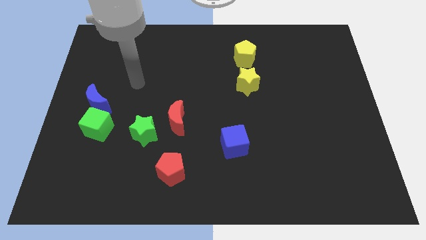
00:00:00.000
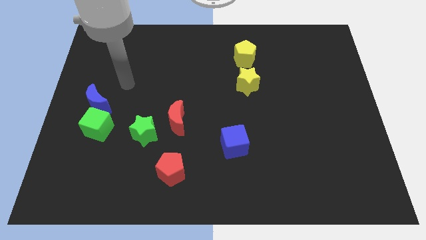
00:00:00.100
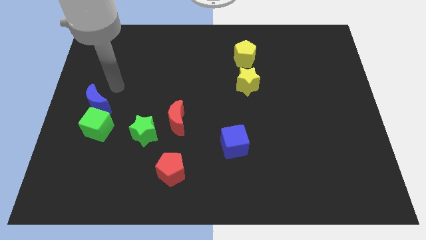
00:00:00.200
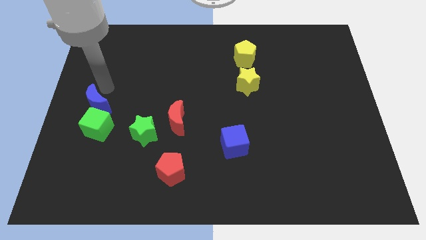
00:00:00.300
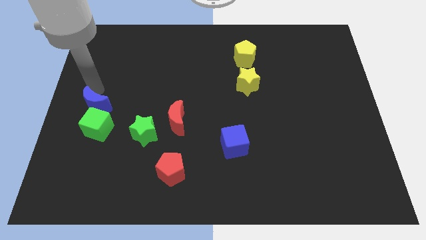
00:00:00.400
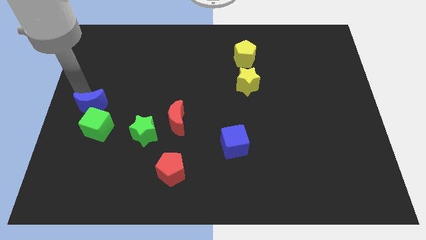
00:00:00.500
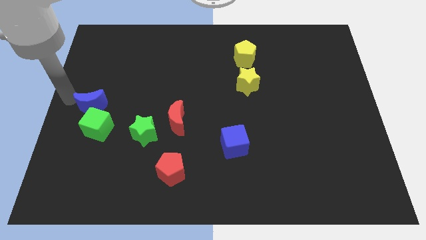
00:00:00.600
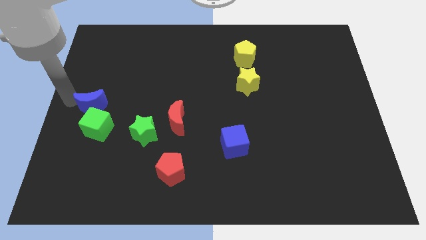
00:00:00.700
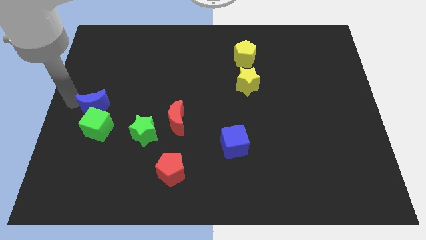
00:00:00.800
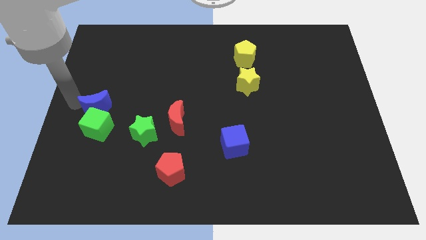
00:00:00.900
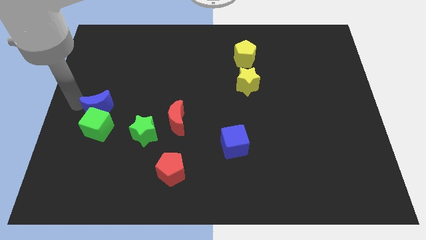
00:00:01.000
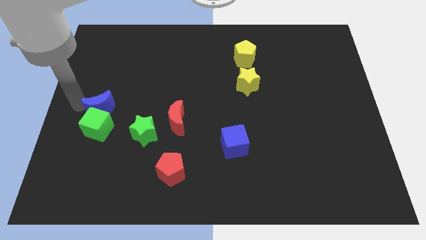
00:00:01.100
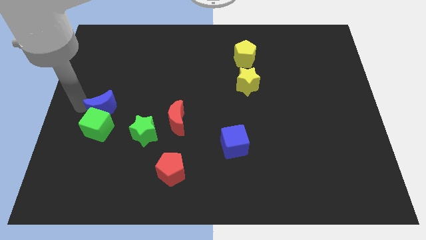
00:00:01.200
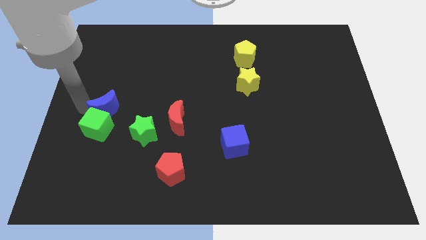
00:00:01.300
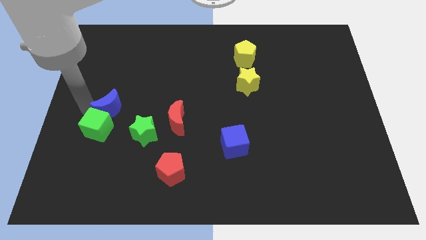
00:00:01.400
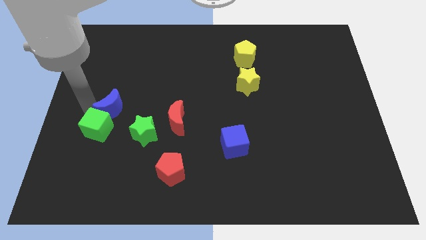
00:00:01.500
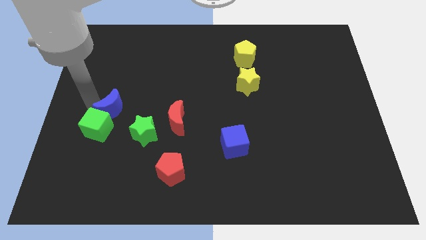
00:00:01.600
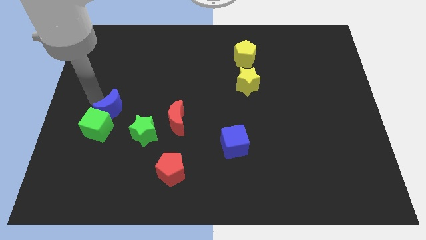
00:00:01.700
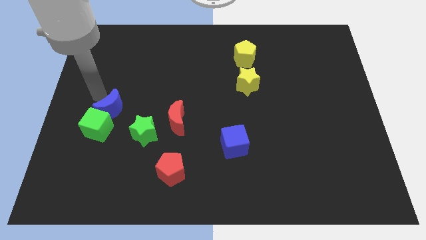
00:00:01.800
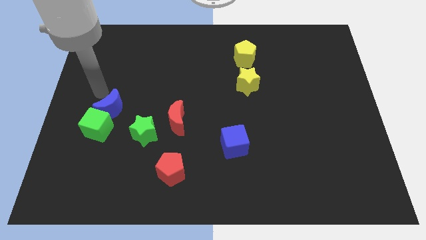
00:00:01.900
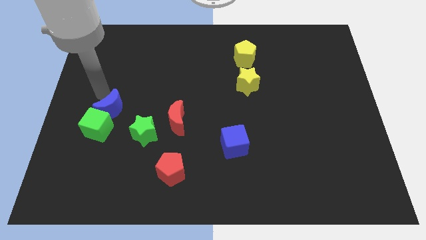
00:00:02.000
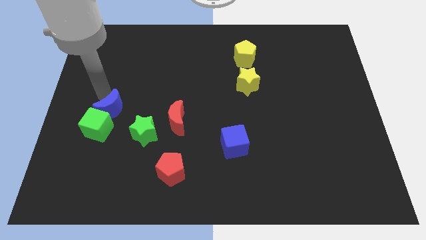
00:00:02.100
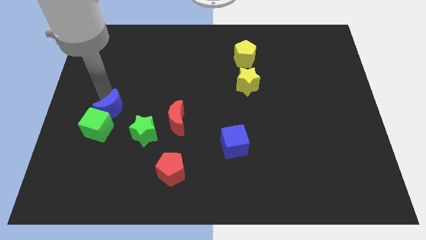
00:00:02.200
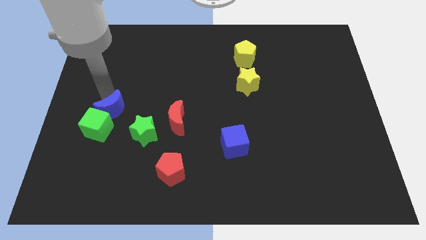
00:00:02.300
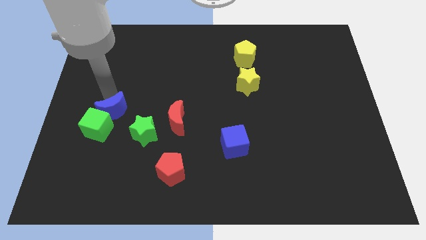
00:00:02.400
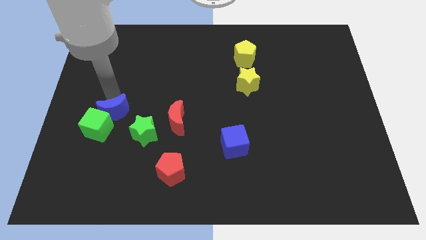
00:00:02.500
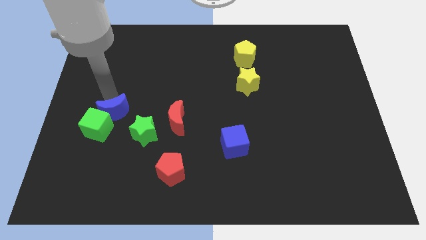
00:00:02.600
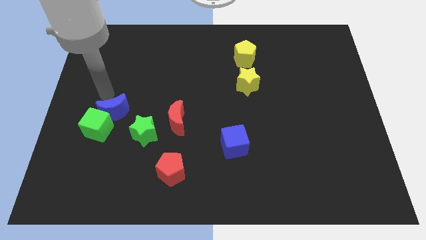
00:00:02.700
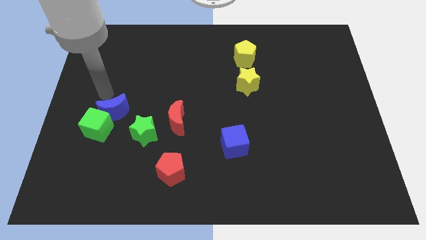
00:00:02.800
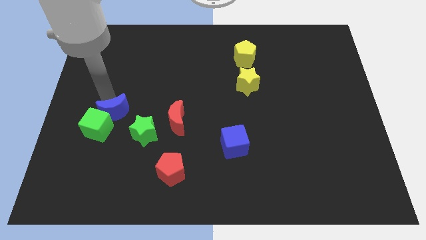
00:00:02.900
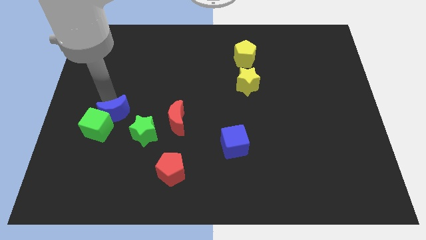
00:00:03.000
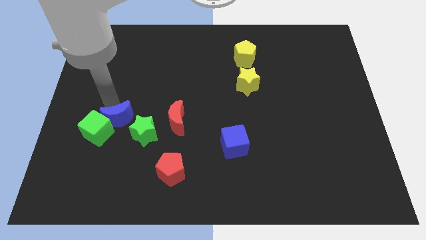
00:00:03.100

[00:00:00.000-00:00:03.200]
move the blue moon a bit diagonally downwards and right

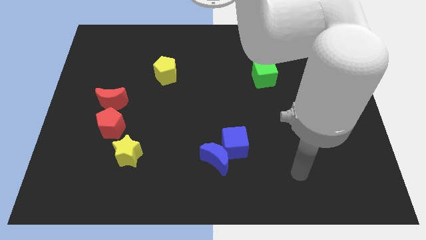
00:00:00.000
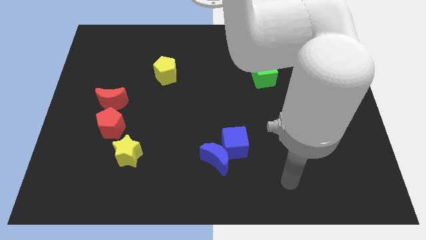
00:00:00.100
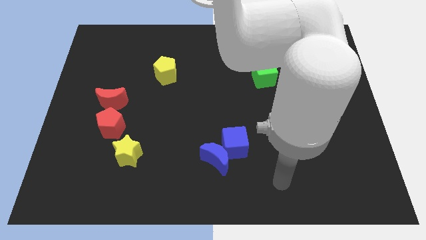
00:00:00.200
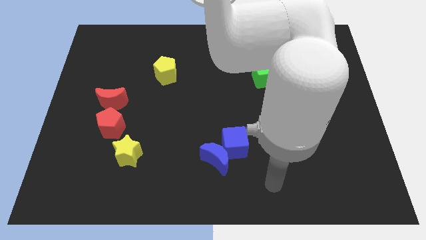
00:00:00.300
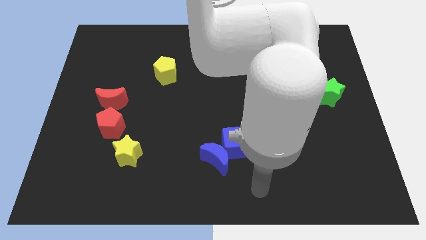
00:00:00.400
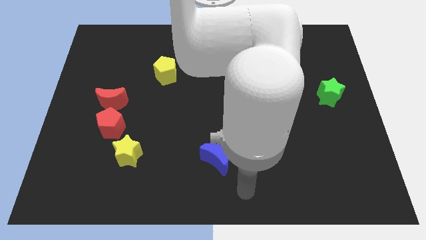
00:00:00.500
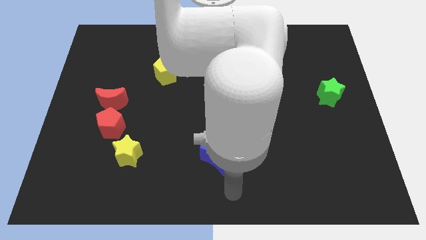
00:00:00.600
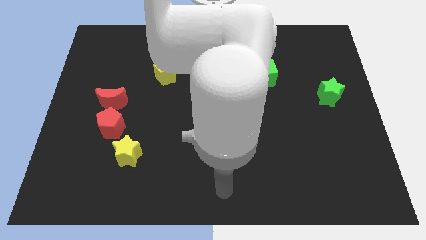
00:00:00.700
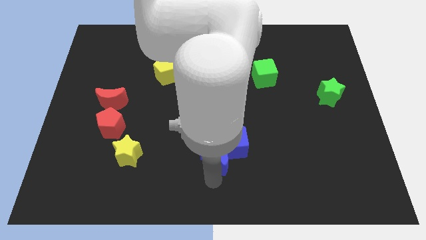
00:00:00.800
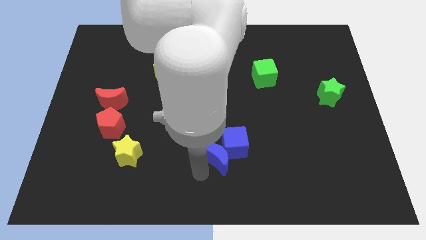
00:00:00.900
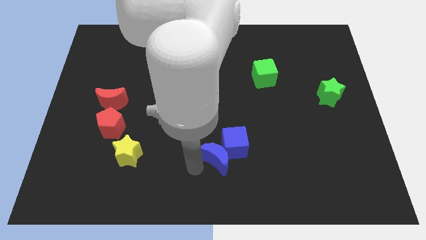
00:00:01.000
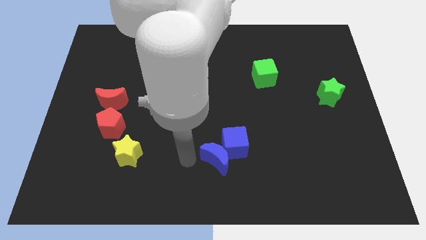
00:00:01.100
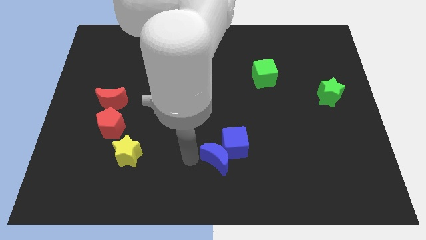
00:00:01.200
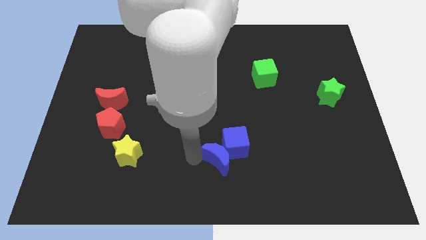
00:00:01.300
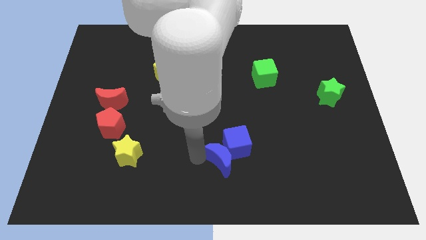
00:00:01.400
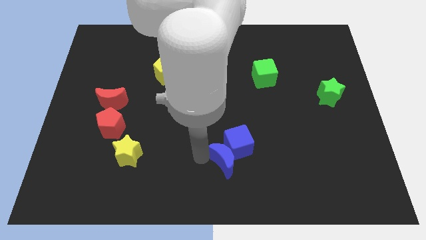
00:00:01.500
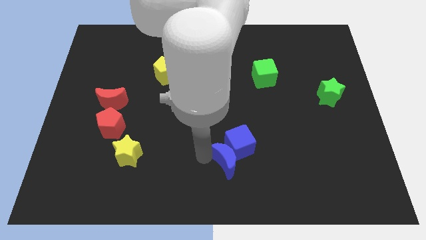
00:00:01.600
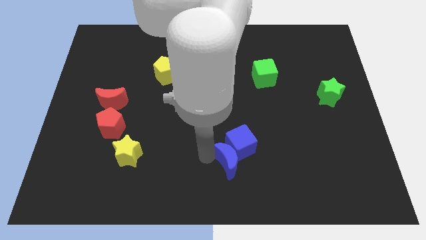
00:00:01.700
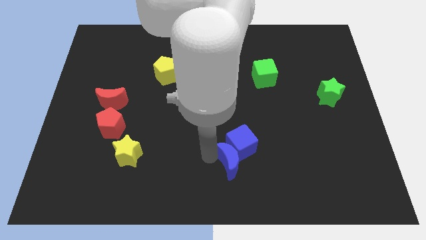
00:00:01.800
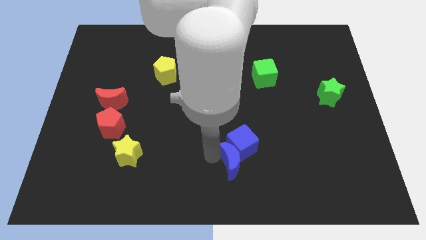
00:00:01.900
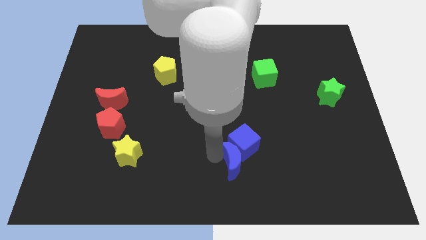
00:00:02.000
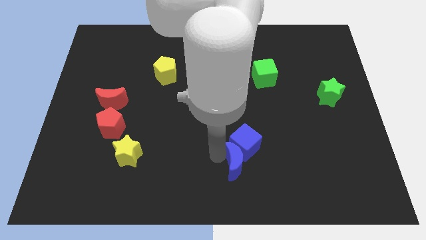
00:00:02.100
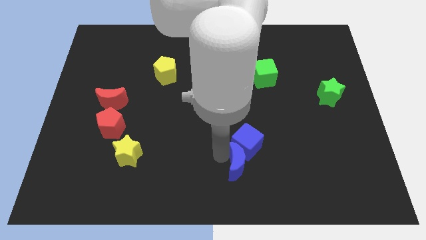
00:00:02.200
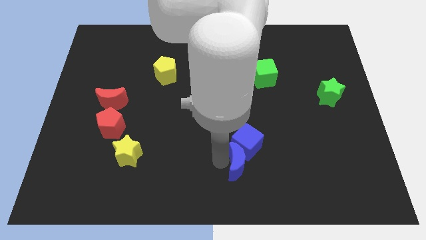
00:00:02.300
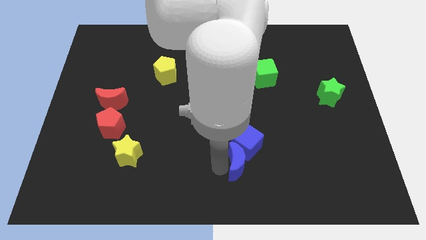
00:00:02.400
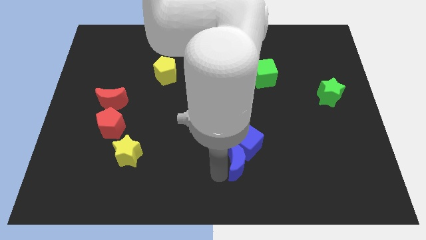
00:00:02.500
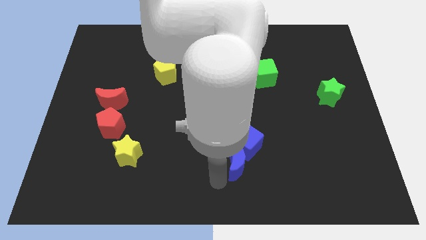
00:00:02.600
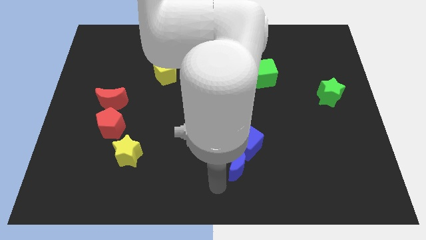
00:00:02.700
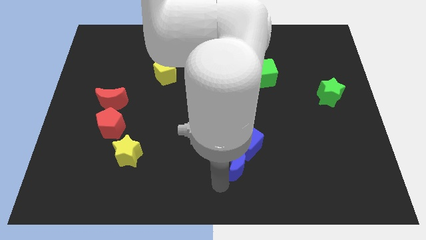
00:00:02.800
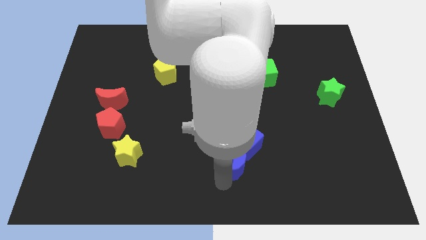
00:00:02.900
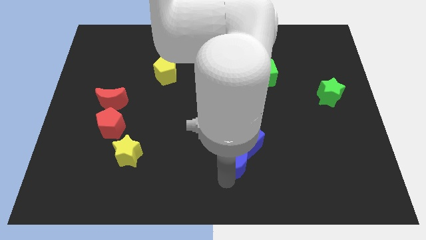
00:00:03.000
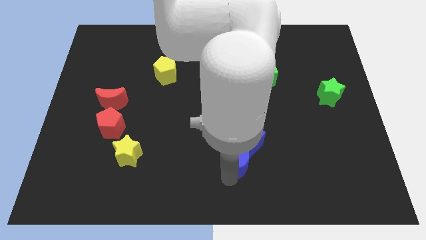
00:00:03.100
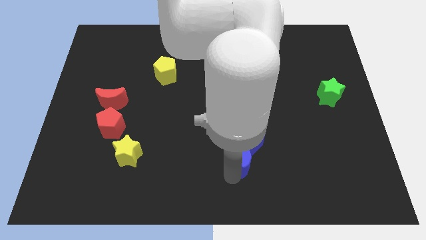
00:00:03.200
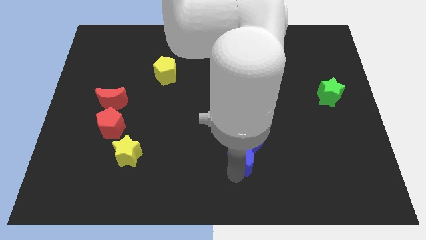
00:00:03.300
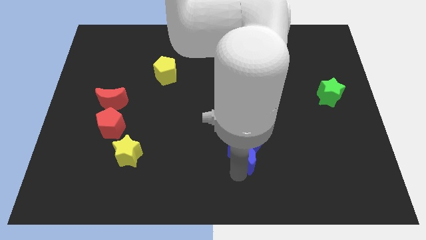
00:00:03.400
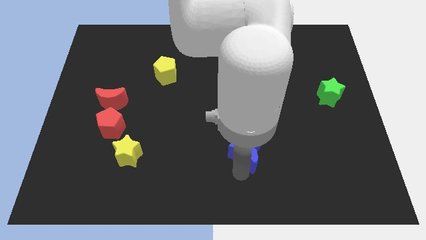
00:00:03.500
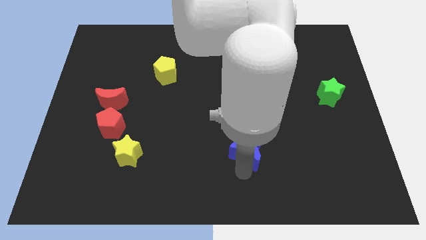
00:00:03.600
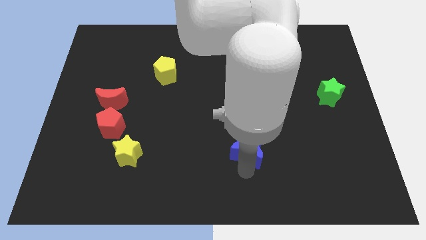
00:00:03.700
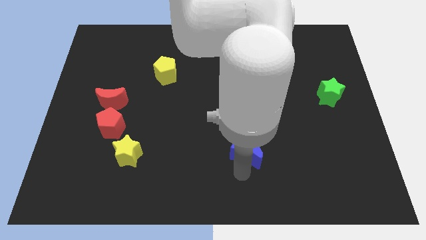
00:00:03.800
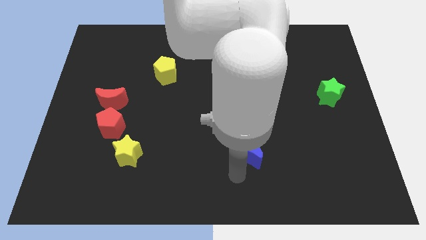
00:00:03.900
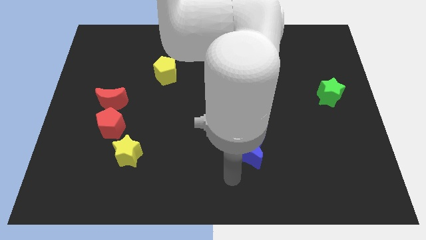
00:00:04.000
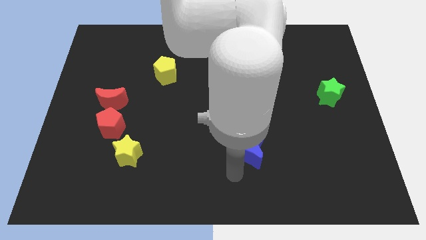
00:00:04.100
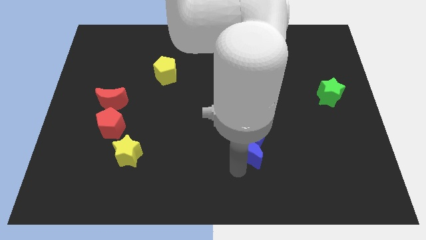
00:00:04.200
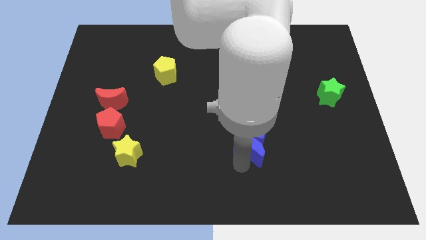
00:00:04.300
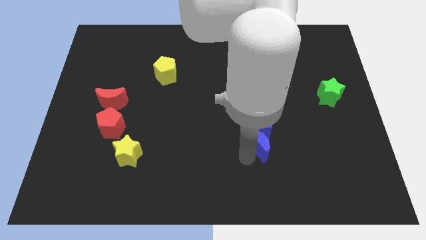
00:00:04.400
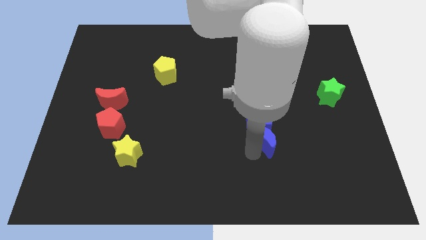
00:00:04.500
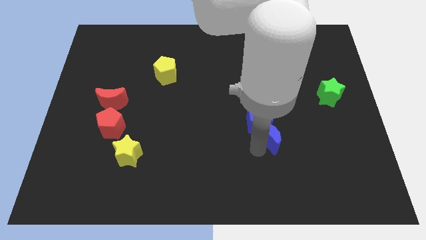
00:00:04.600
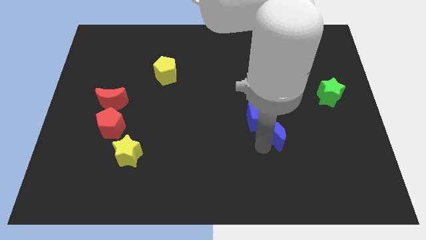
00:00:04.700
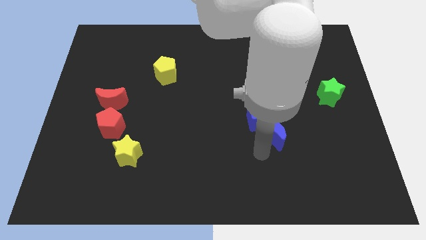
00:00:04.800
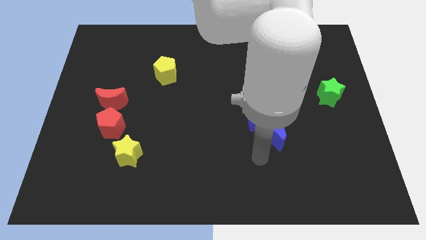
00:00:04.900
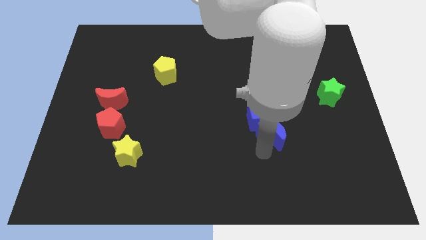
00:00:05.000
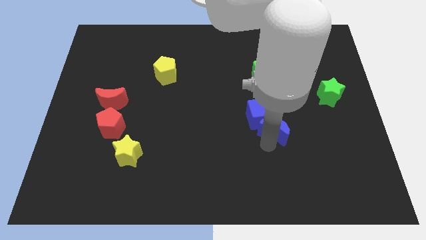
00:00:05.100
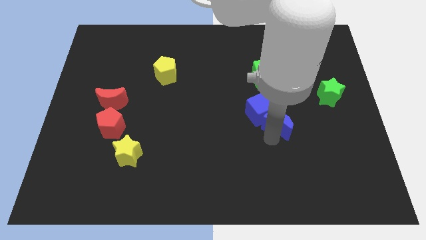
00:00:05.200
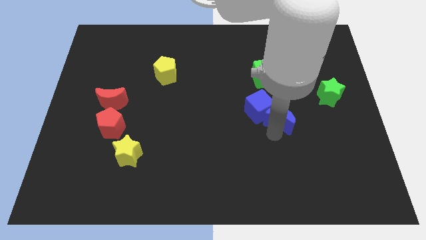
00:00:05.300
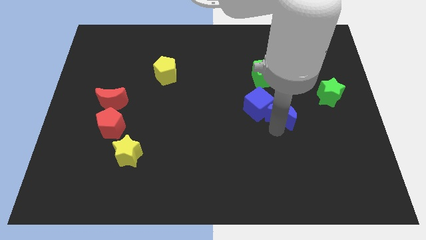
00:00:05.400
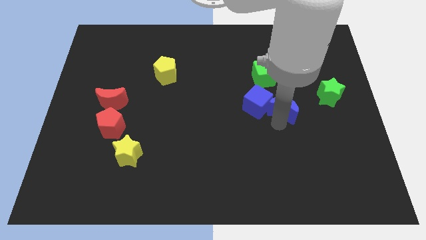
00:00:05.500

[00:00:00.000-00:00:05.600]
push the blue moon upwards and right

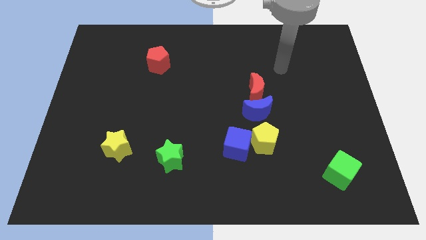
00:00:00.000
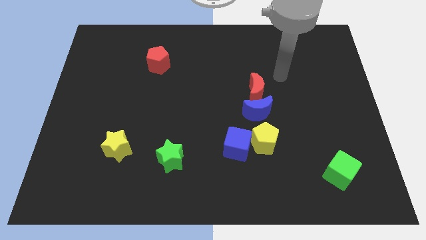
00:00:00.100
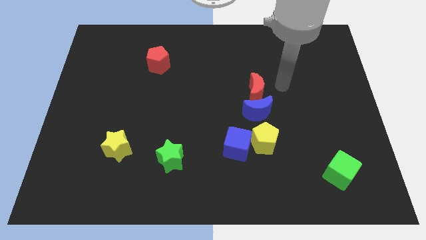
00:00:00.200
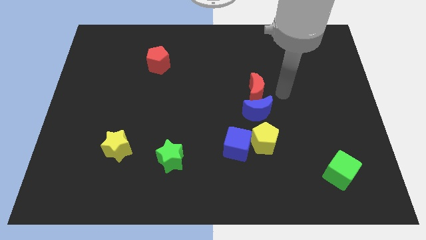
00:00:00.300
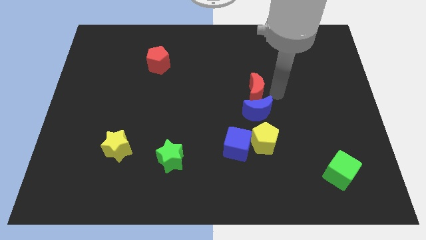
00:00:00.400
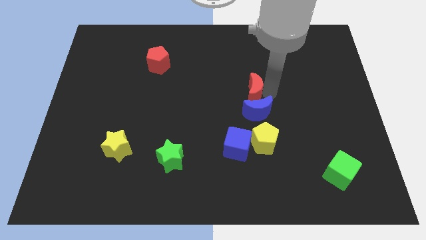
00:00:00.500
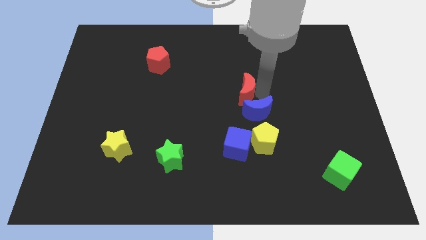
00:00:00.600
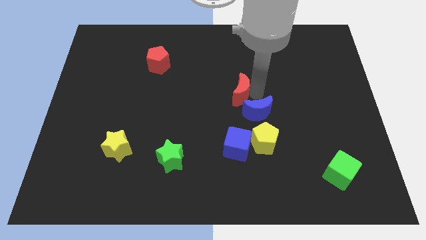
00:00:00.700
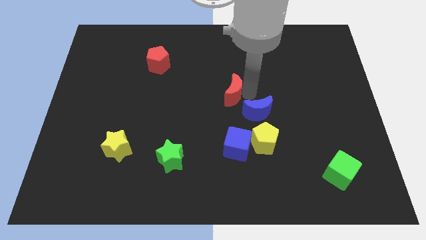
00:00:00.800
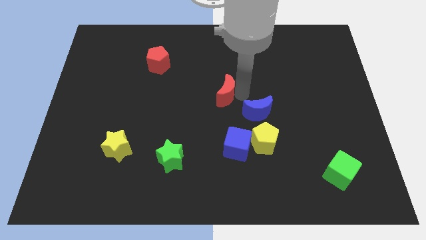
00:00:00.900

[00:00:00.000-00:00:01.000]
move the red moon a bit to the left
